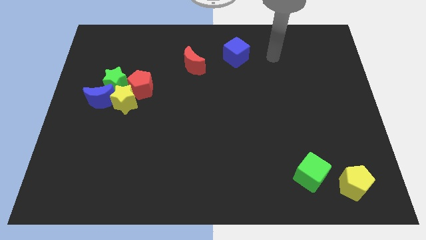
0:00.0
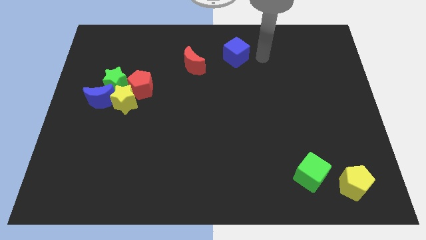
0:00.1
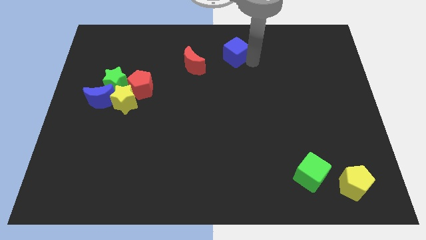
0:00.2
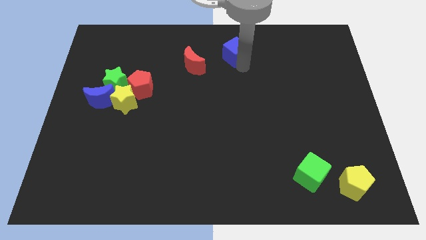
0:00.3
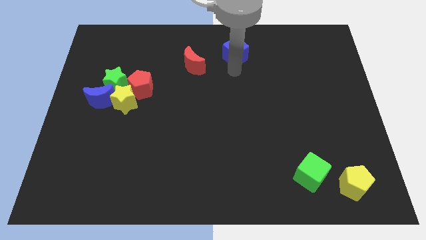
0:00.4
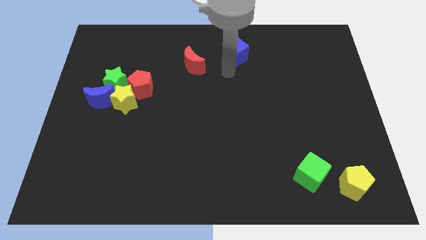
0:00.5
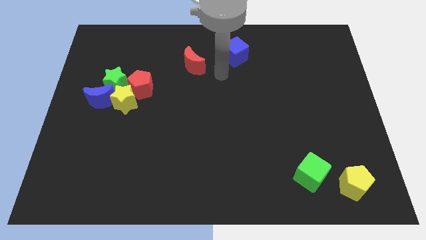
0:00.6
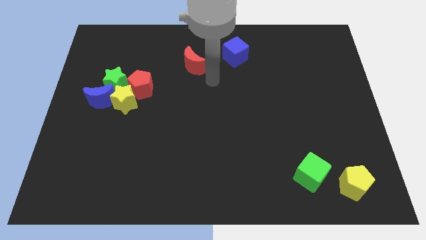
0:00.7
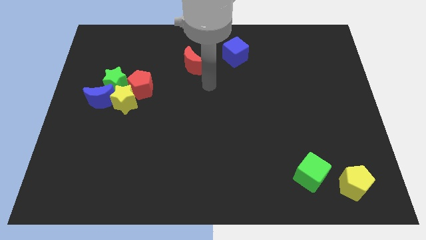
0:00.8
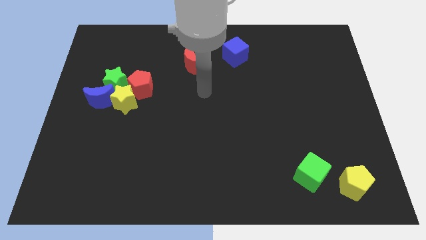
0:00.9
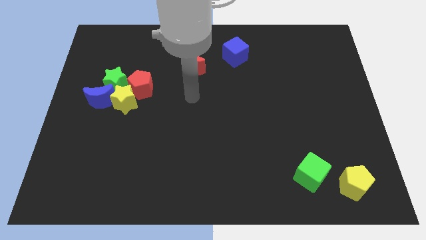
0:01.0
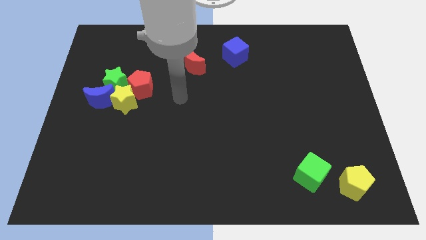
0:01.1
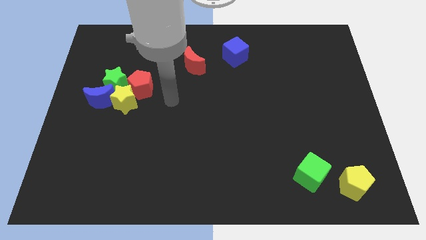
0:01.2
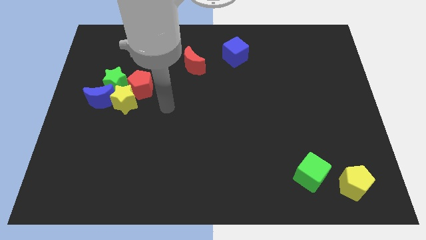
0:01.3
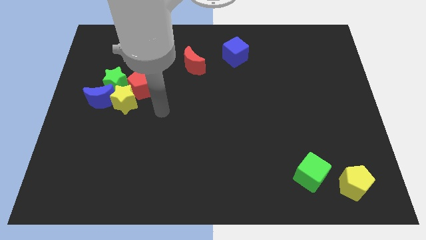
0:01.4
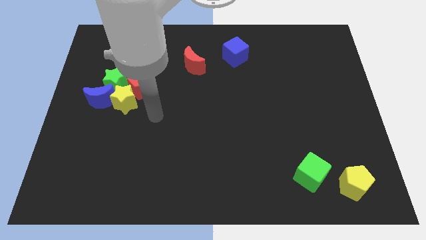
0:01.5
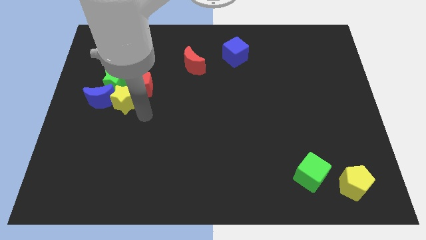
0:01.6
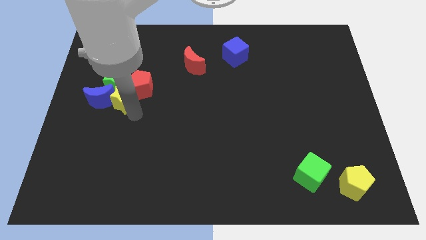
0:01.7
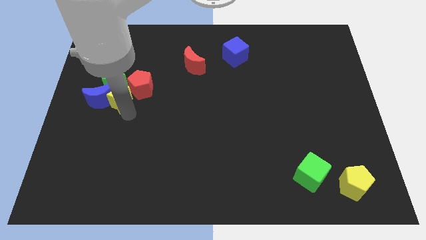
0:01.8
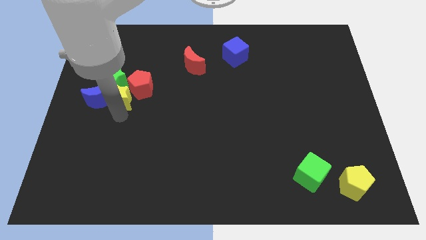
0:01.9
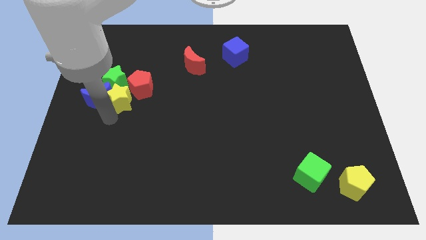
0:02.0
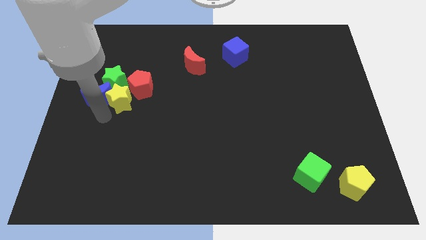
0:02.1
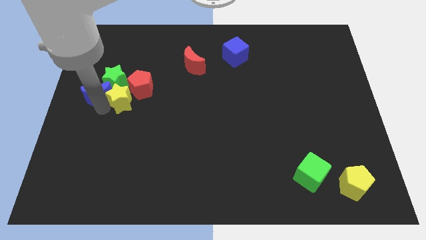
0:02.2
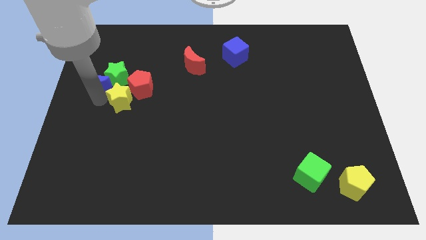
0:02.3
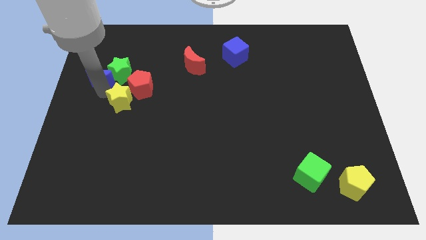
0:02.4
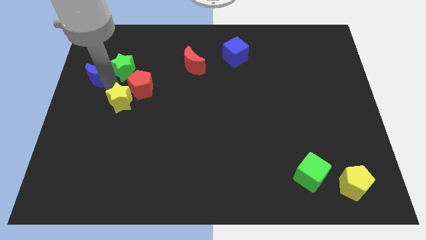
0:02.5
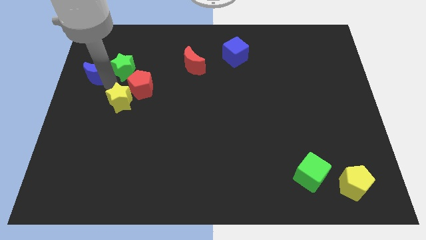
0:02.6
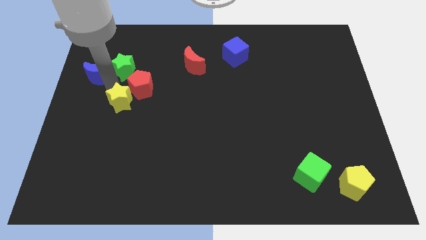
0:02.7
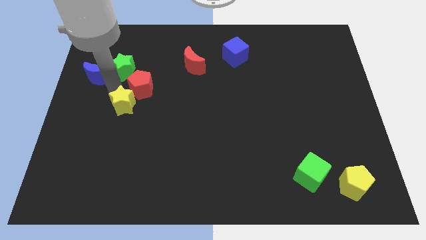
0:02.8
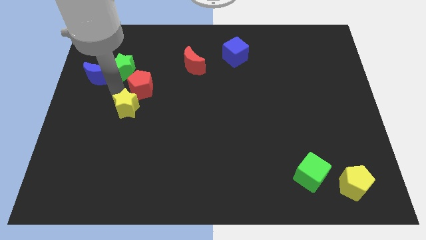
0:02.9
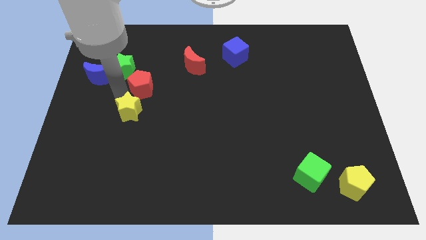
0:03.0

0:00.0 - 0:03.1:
pull the yellow star apart from the clump

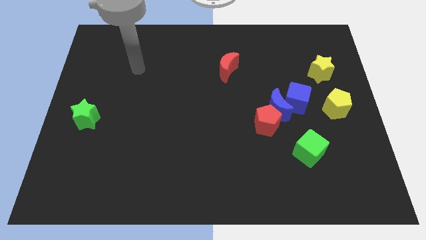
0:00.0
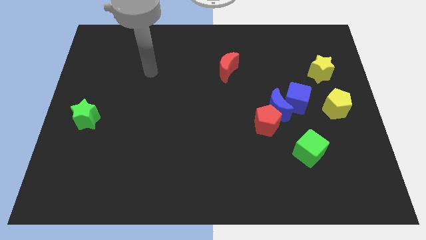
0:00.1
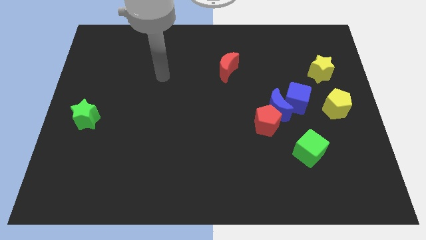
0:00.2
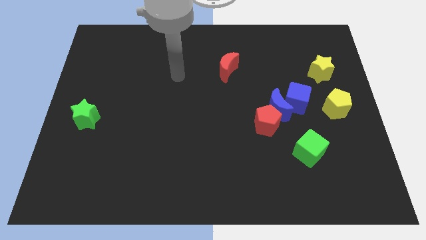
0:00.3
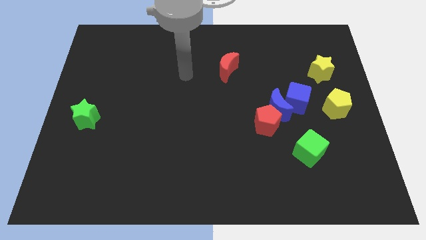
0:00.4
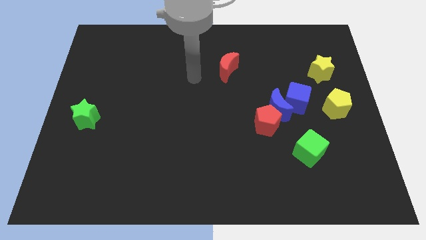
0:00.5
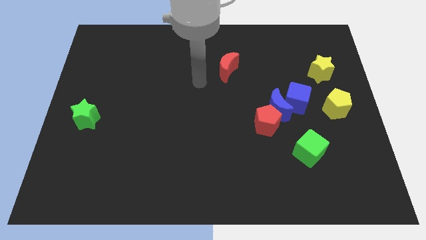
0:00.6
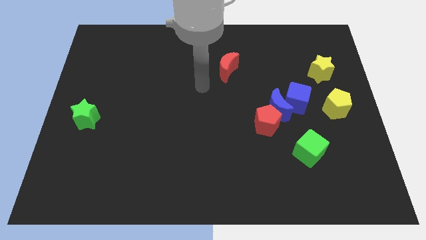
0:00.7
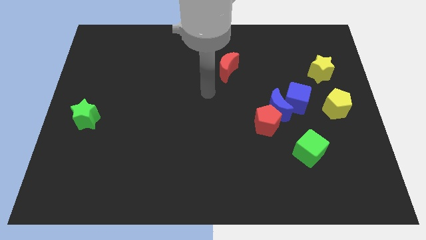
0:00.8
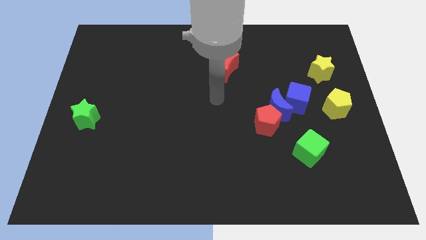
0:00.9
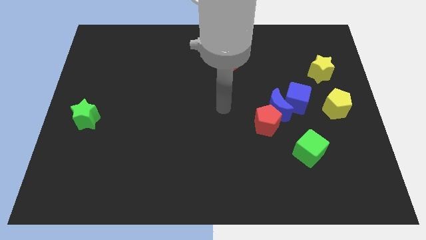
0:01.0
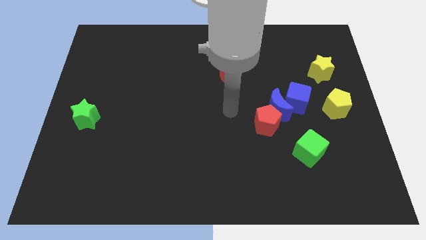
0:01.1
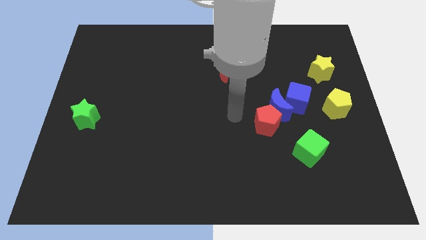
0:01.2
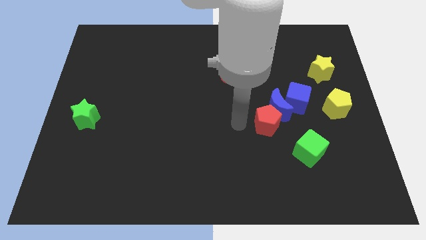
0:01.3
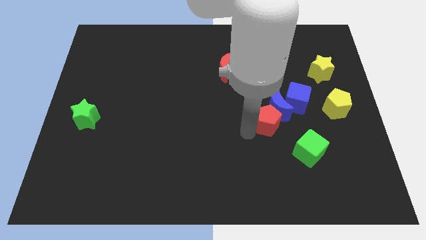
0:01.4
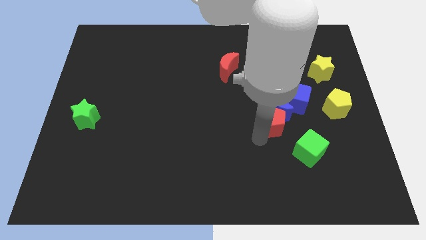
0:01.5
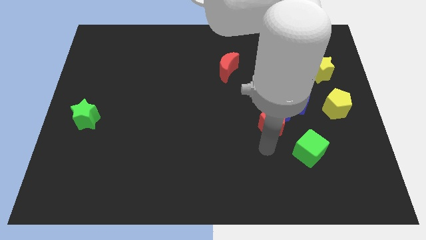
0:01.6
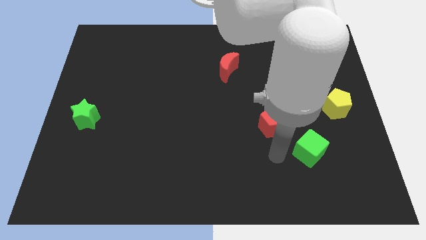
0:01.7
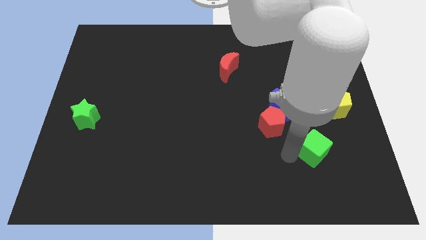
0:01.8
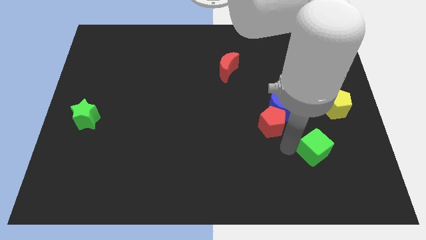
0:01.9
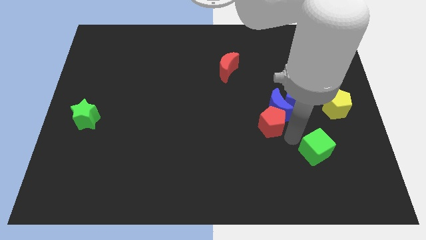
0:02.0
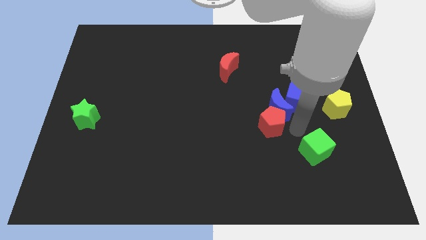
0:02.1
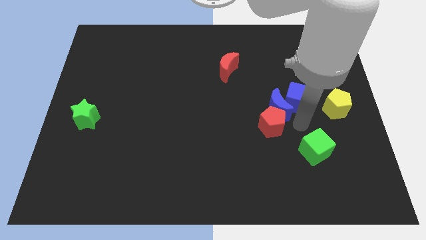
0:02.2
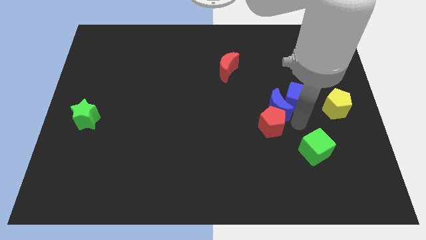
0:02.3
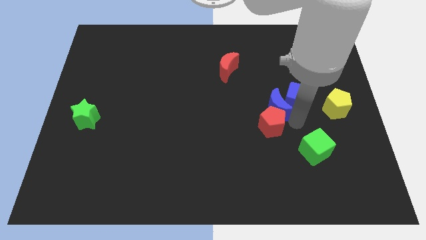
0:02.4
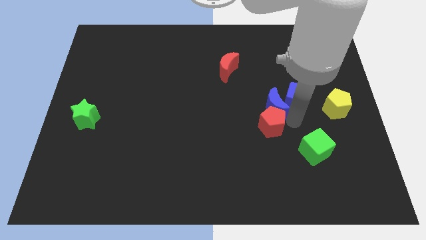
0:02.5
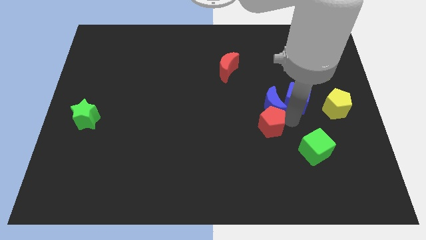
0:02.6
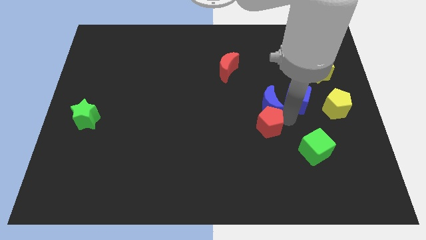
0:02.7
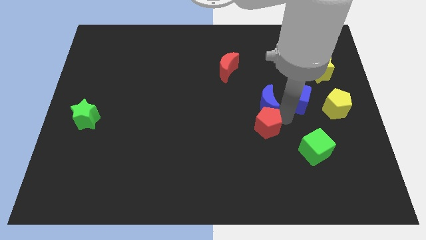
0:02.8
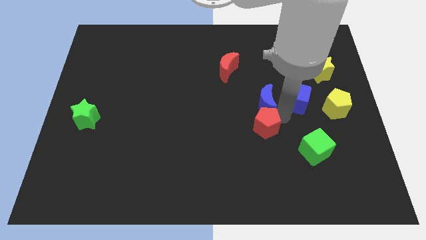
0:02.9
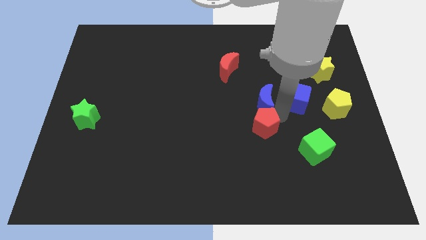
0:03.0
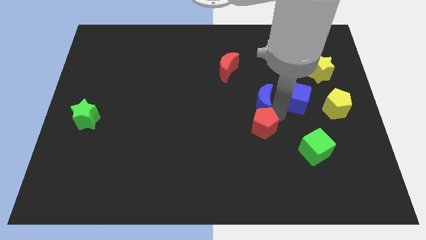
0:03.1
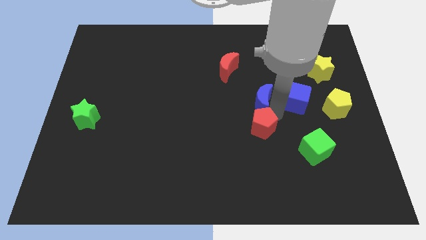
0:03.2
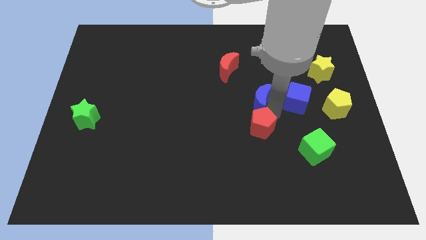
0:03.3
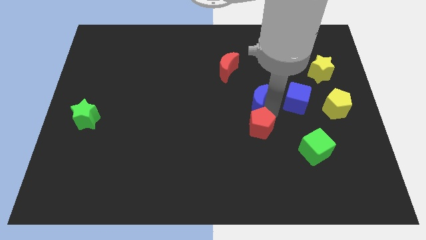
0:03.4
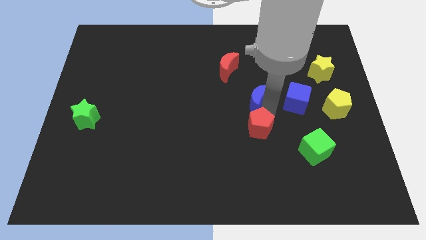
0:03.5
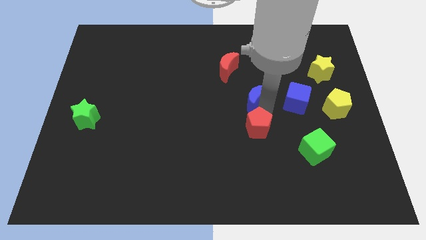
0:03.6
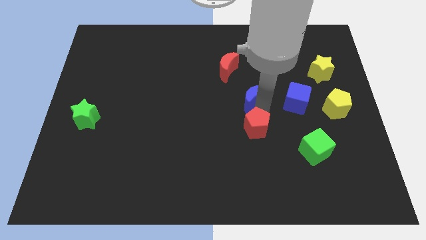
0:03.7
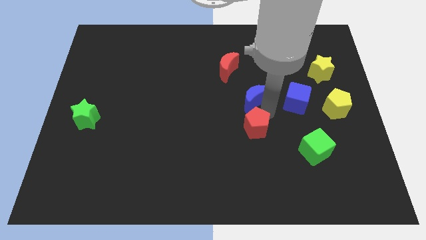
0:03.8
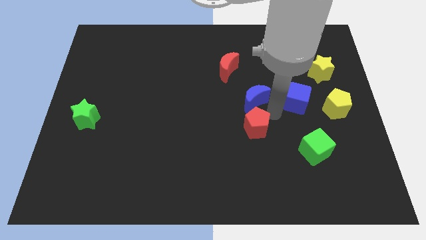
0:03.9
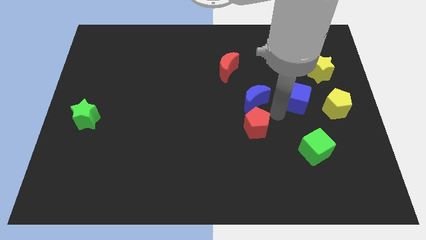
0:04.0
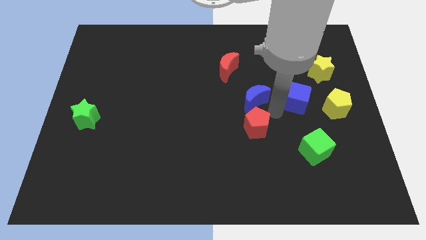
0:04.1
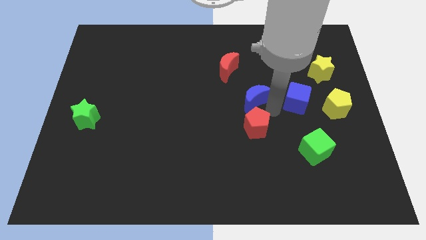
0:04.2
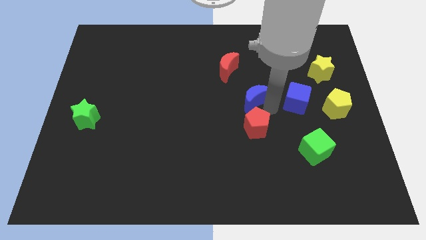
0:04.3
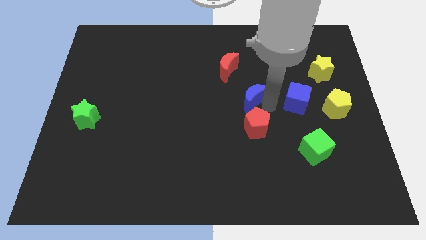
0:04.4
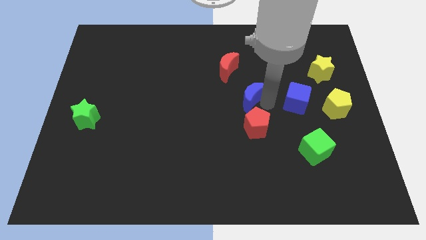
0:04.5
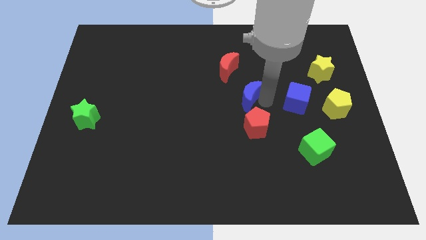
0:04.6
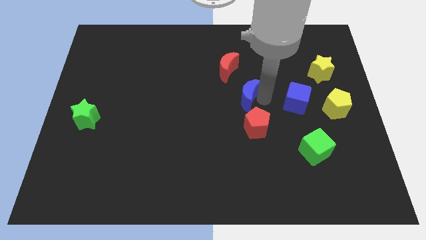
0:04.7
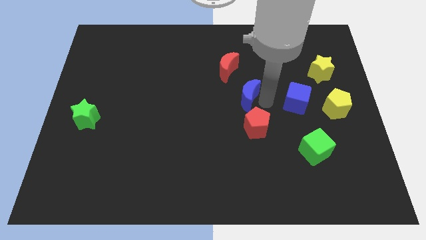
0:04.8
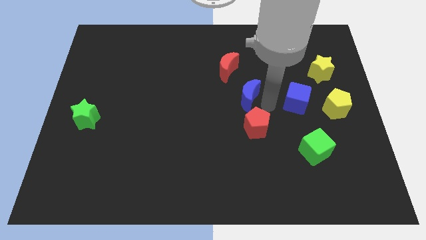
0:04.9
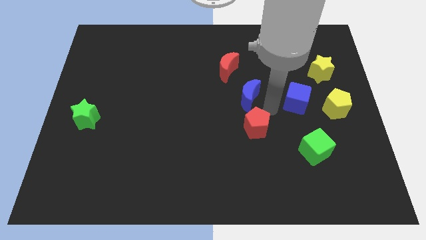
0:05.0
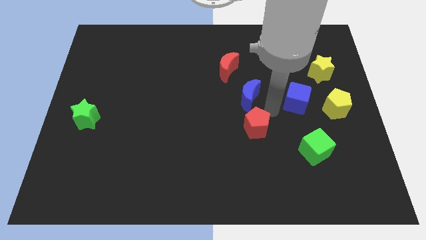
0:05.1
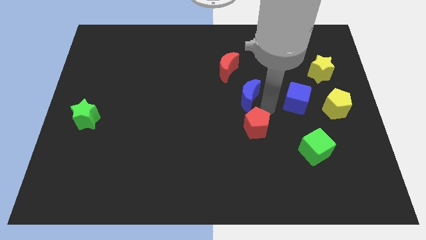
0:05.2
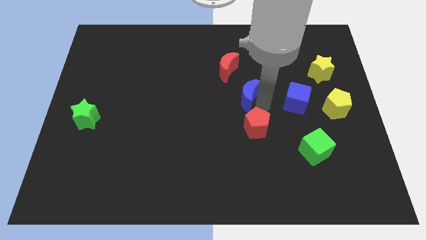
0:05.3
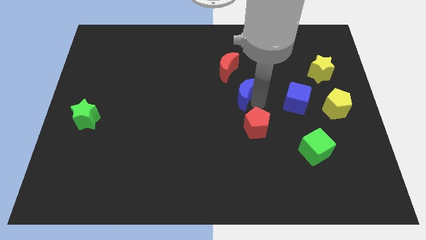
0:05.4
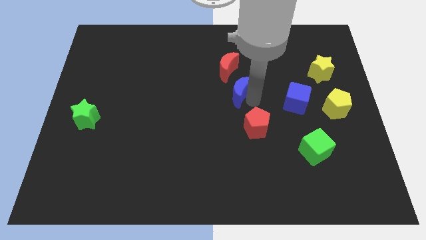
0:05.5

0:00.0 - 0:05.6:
move the blue moon away from the red pentagon and blue cube

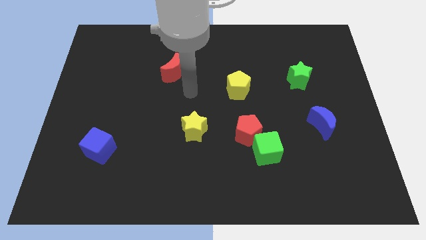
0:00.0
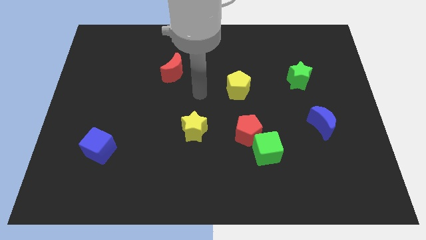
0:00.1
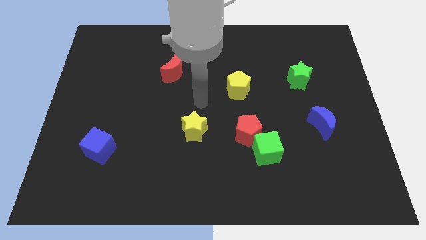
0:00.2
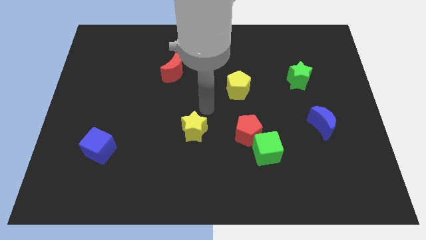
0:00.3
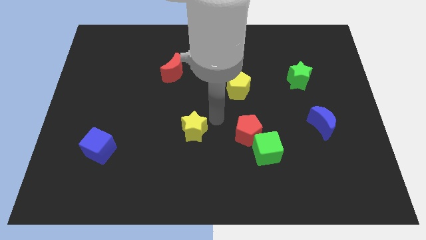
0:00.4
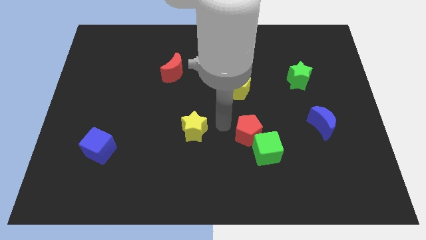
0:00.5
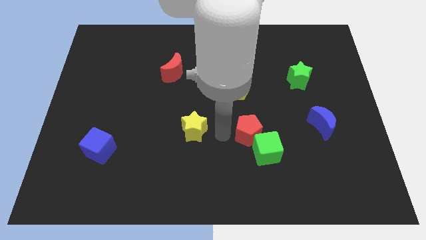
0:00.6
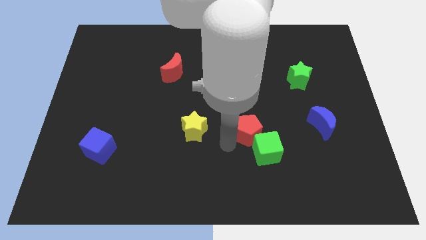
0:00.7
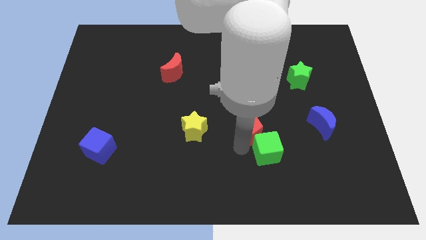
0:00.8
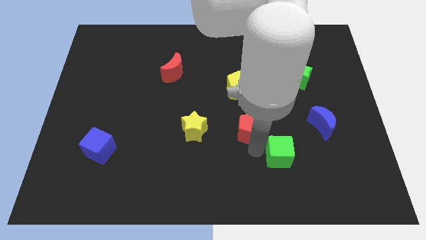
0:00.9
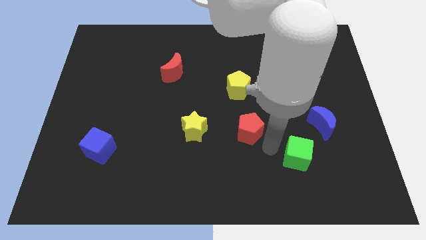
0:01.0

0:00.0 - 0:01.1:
move the red pentagon away from the green cube
